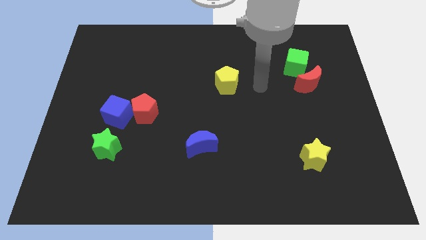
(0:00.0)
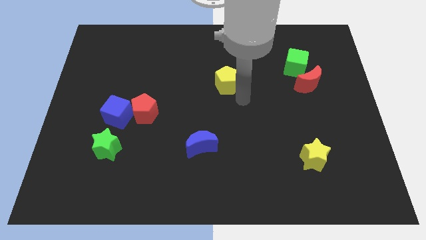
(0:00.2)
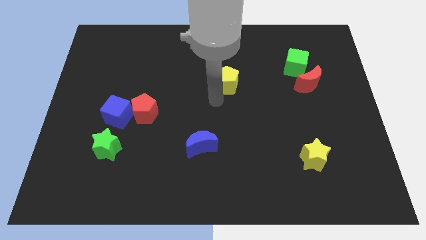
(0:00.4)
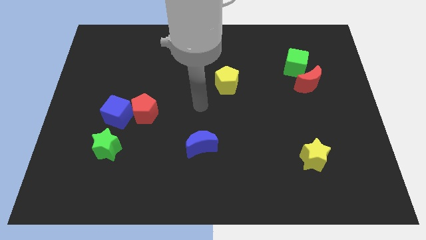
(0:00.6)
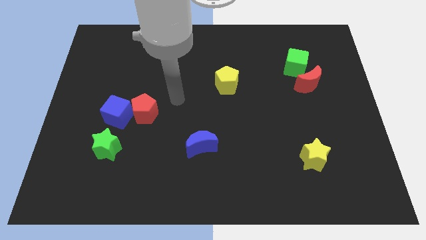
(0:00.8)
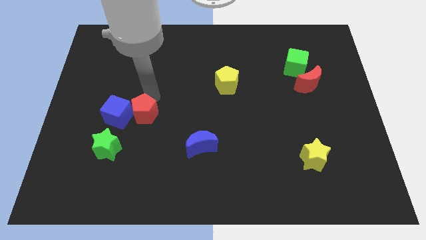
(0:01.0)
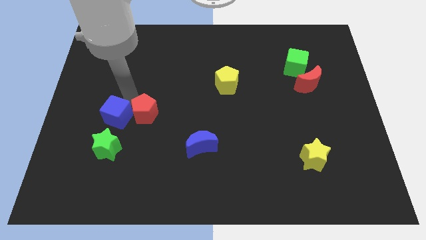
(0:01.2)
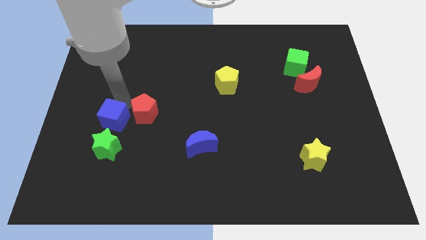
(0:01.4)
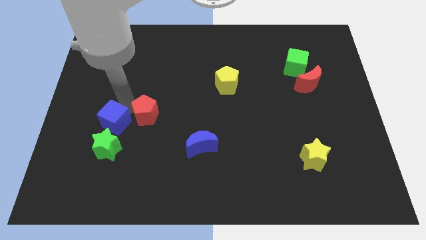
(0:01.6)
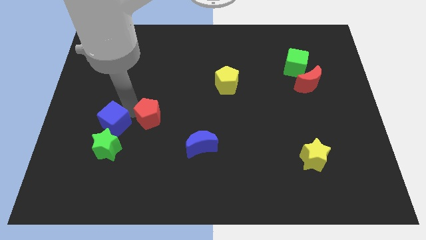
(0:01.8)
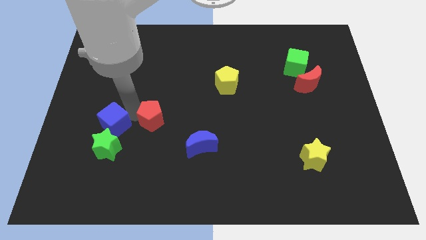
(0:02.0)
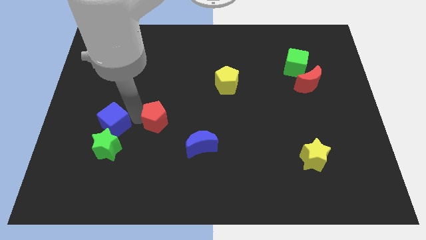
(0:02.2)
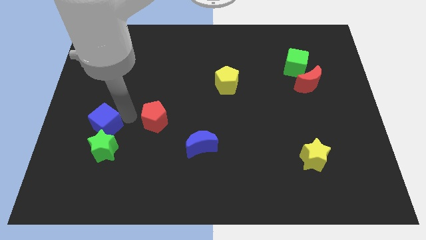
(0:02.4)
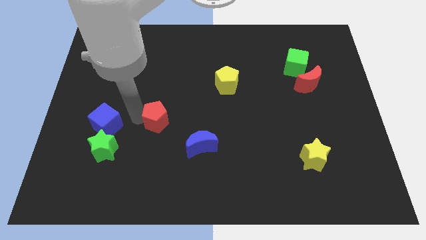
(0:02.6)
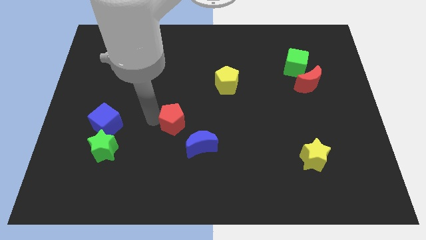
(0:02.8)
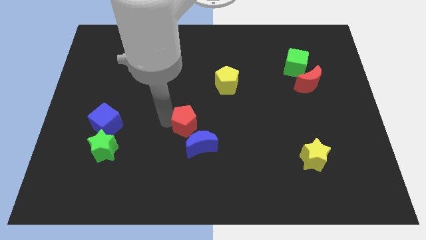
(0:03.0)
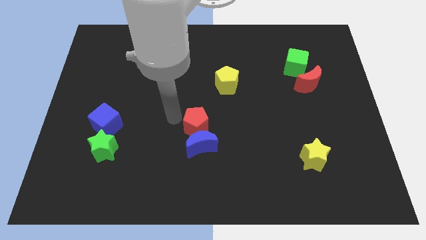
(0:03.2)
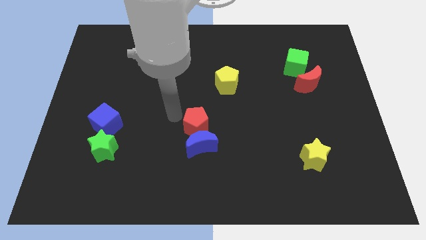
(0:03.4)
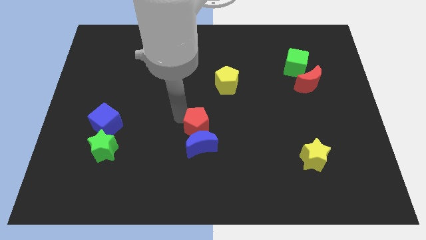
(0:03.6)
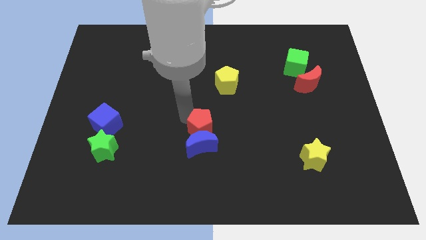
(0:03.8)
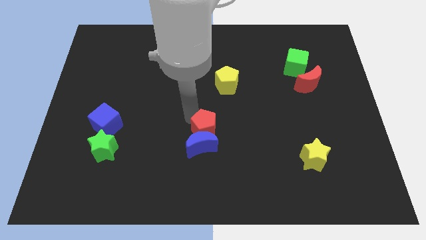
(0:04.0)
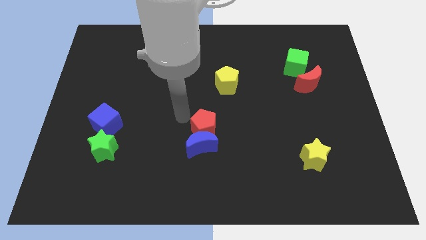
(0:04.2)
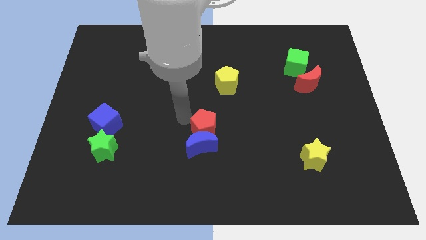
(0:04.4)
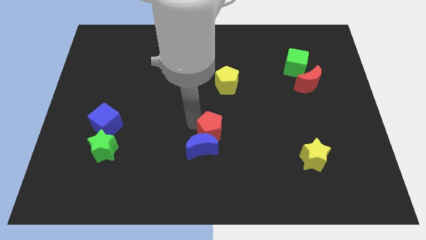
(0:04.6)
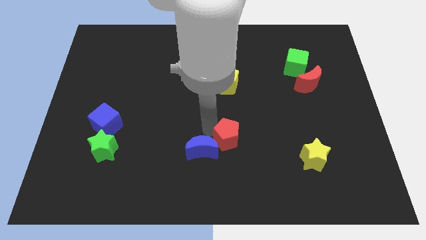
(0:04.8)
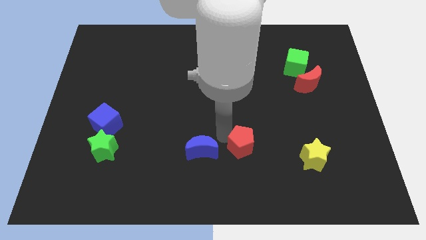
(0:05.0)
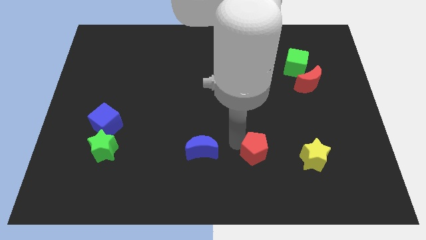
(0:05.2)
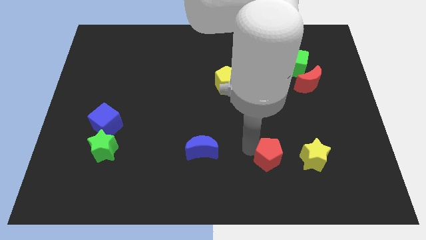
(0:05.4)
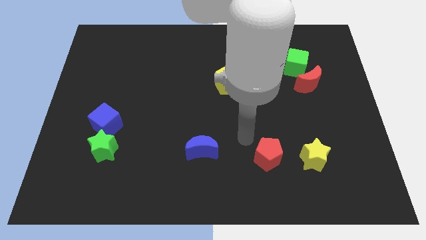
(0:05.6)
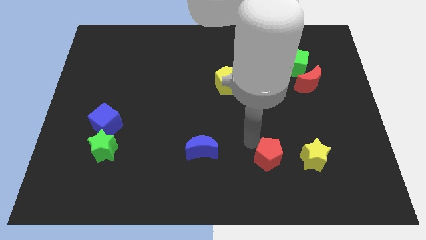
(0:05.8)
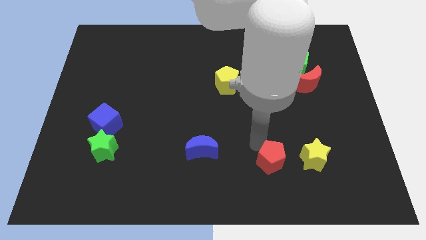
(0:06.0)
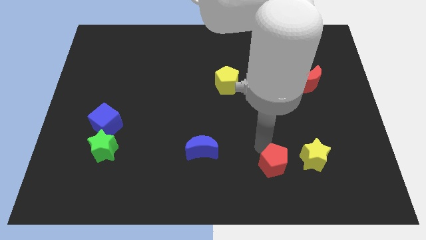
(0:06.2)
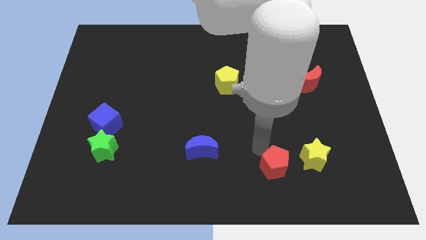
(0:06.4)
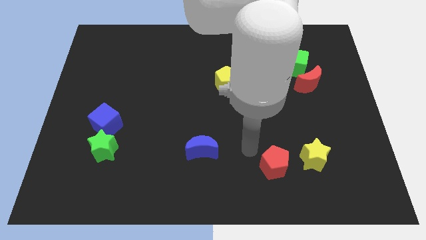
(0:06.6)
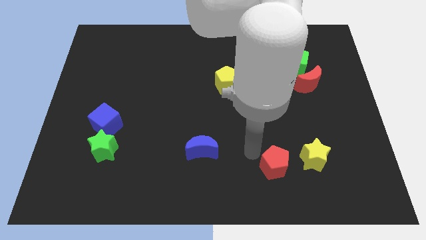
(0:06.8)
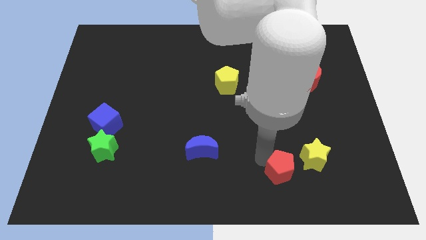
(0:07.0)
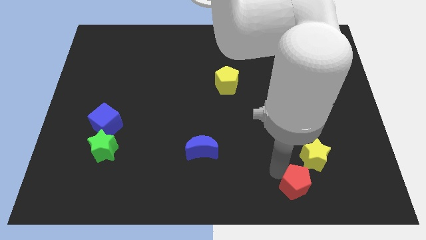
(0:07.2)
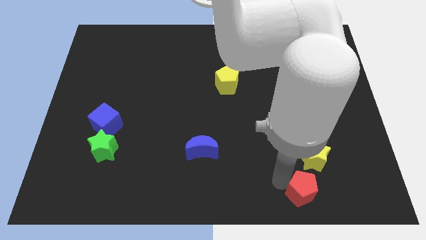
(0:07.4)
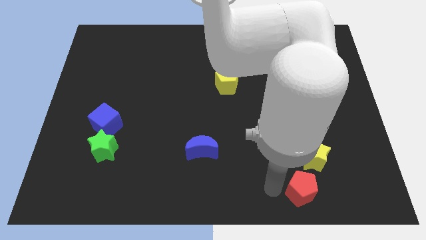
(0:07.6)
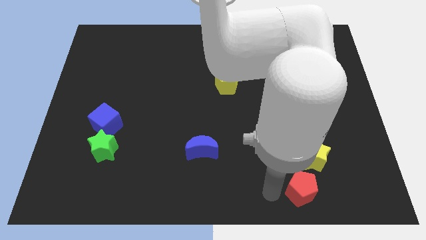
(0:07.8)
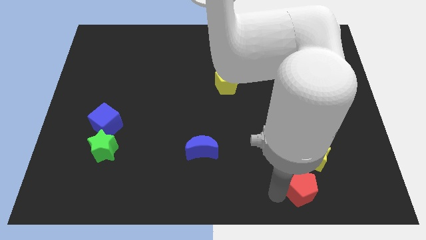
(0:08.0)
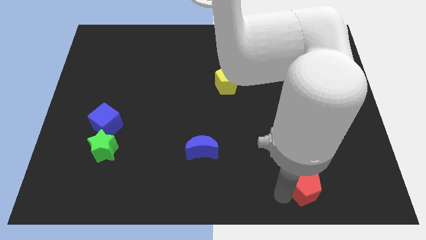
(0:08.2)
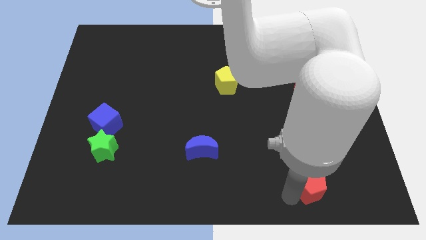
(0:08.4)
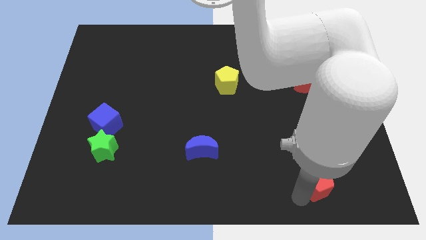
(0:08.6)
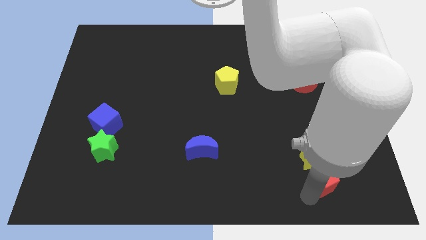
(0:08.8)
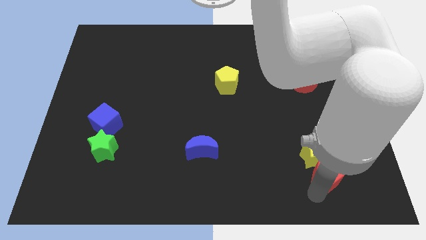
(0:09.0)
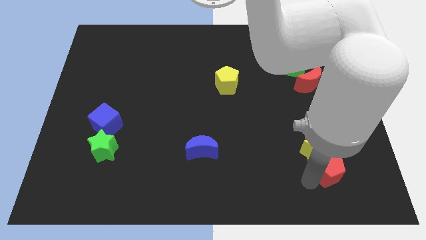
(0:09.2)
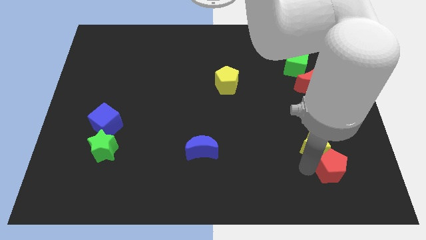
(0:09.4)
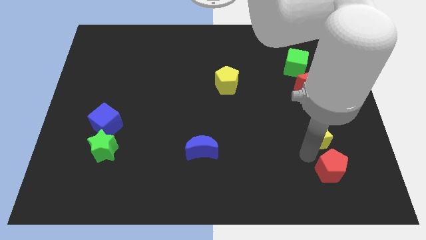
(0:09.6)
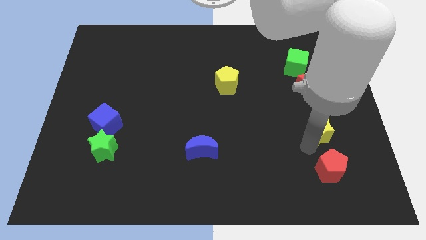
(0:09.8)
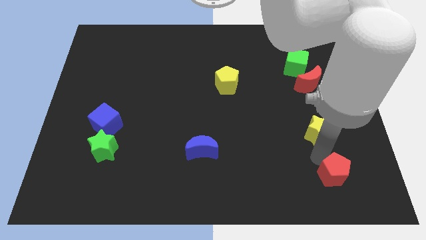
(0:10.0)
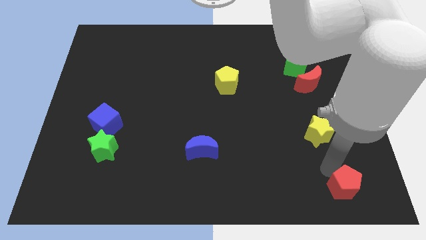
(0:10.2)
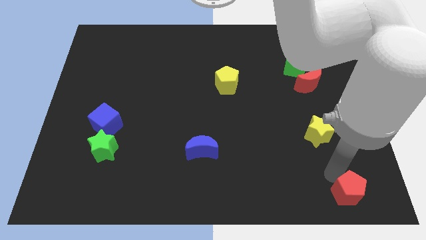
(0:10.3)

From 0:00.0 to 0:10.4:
push the red pentagon to the bottom right corner

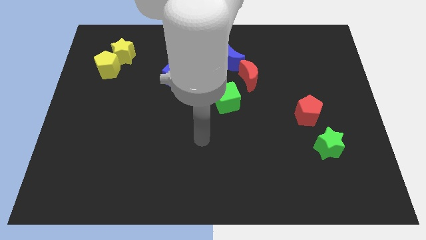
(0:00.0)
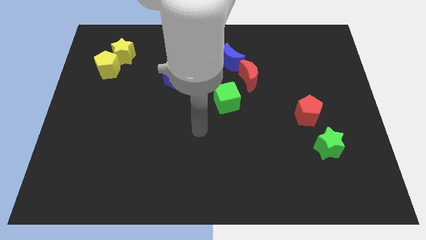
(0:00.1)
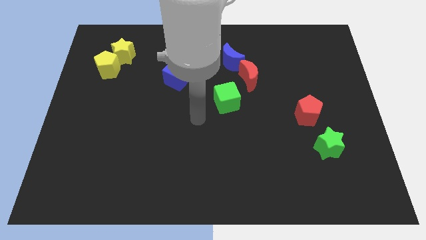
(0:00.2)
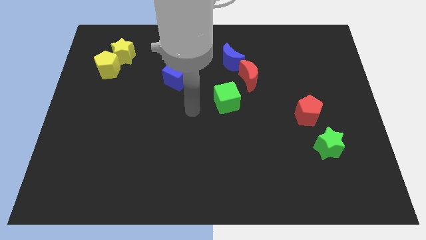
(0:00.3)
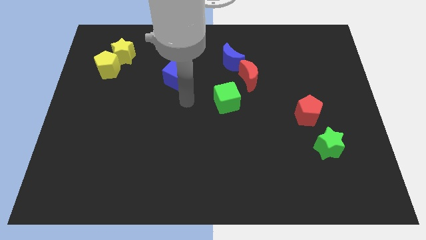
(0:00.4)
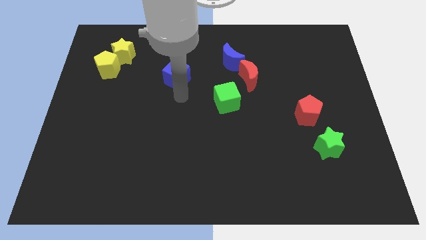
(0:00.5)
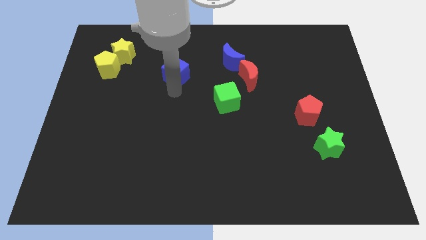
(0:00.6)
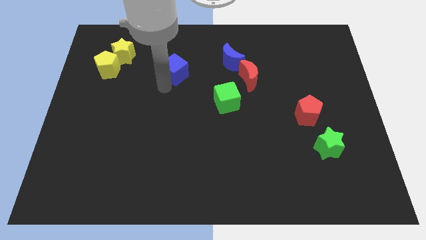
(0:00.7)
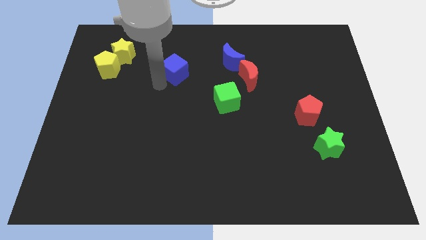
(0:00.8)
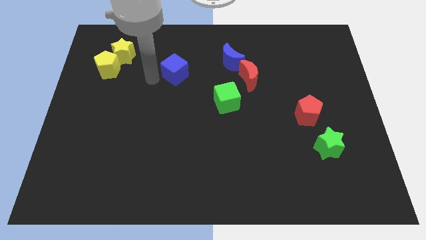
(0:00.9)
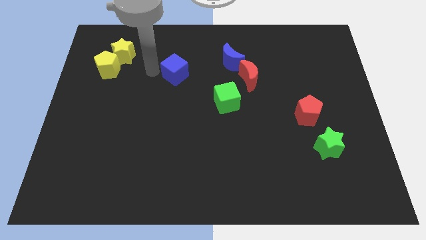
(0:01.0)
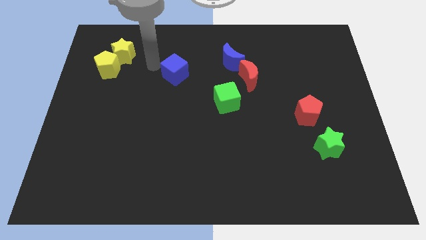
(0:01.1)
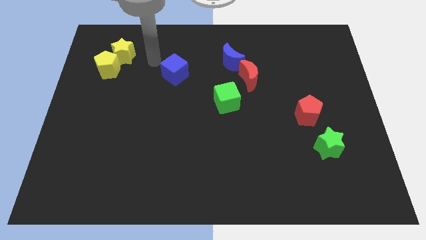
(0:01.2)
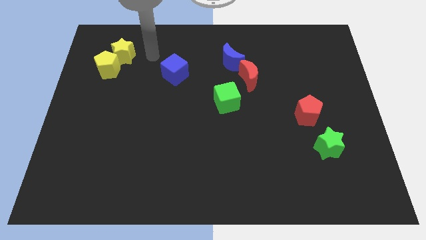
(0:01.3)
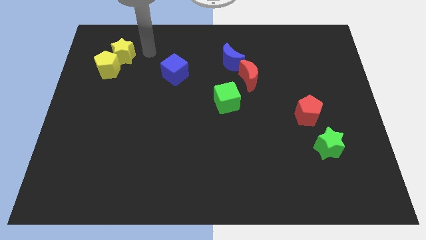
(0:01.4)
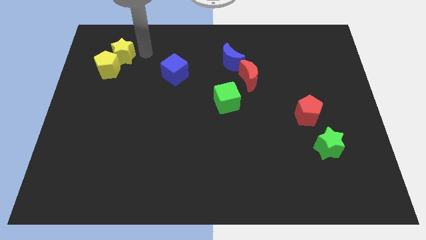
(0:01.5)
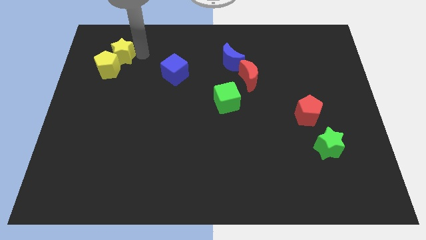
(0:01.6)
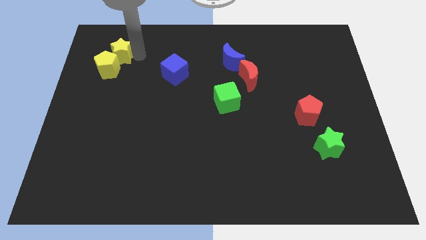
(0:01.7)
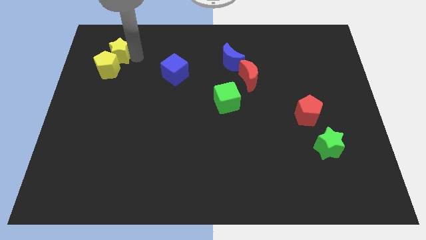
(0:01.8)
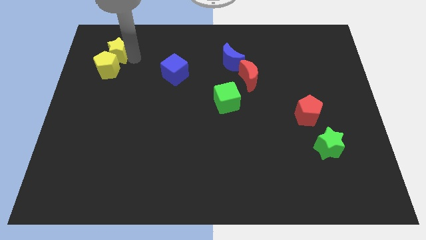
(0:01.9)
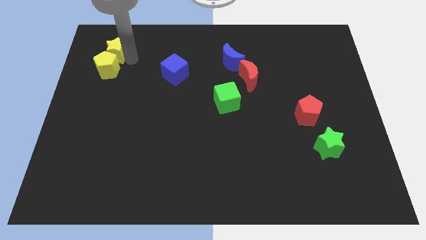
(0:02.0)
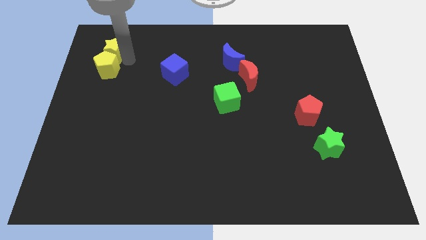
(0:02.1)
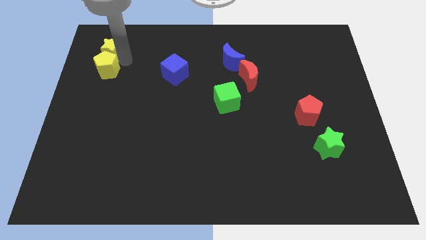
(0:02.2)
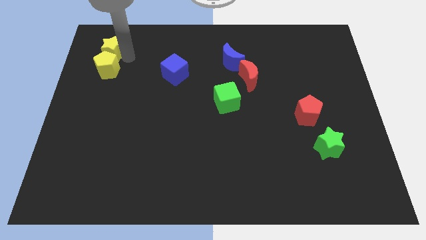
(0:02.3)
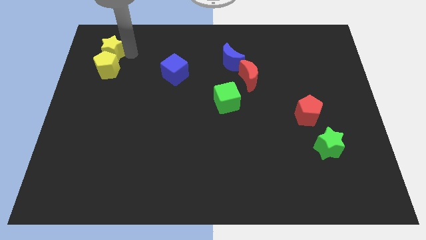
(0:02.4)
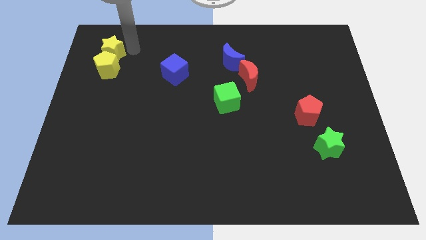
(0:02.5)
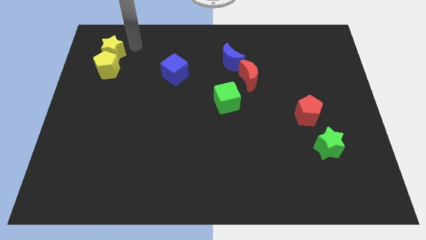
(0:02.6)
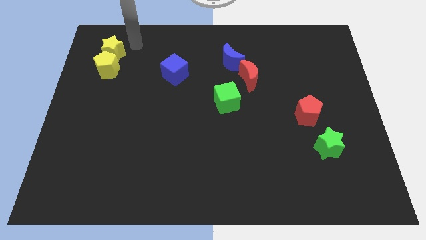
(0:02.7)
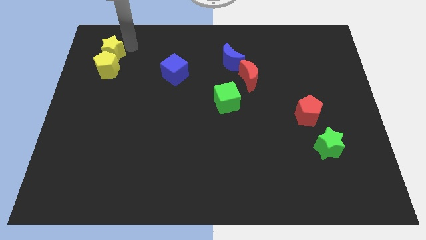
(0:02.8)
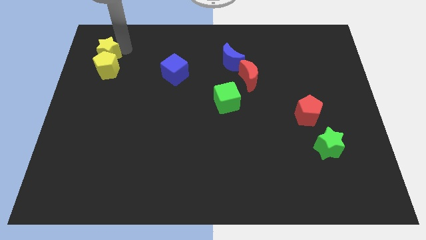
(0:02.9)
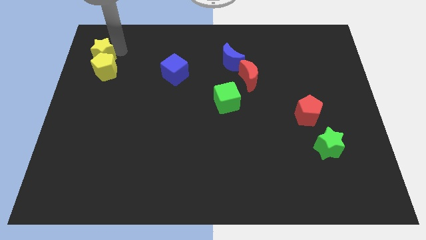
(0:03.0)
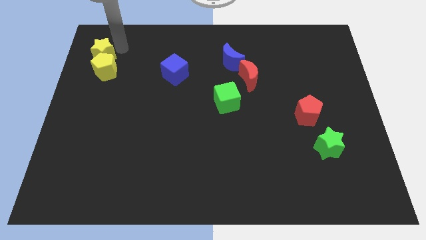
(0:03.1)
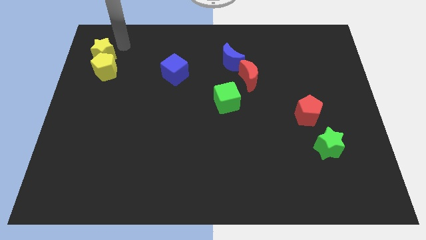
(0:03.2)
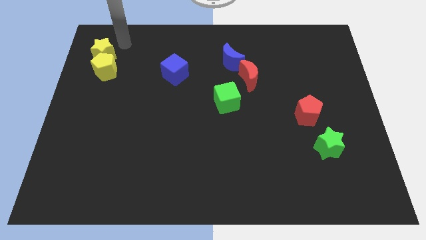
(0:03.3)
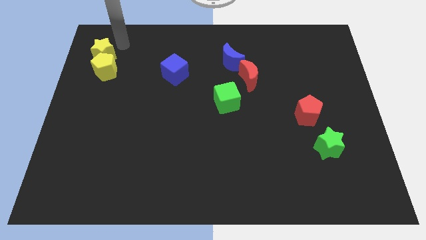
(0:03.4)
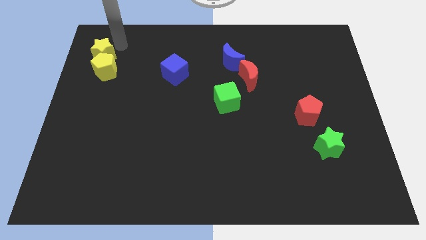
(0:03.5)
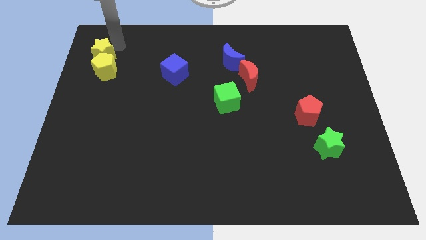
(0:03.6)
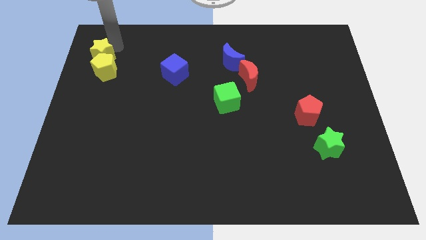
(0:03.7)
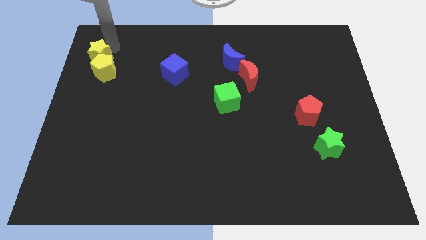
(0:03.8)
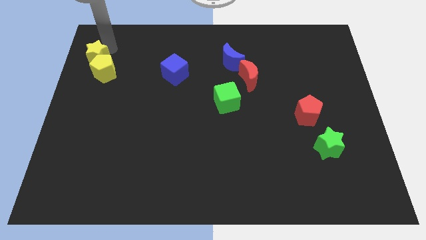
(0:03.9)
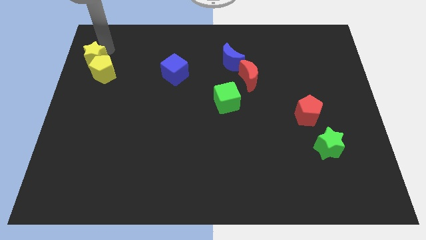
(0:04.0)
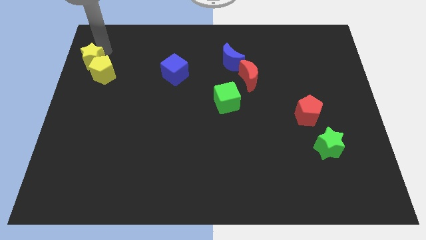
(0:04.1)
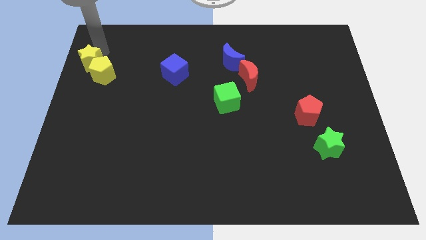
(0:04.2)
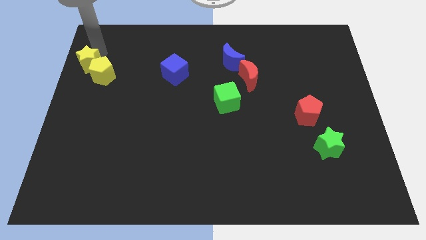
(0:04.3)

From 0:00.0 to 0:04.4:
put the yellow star to the center left
